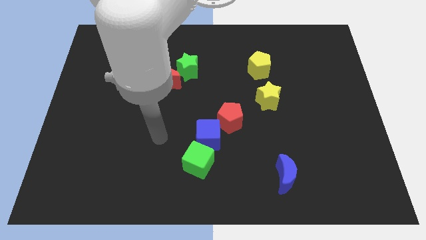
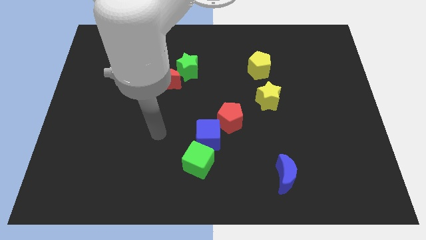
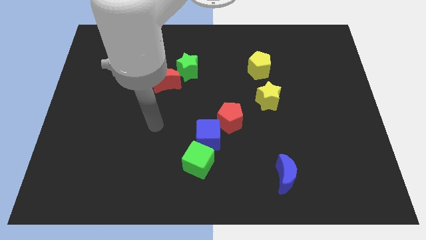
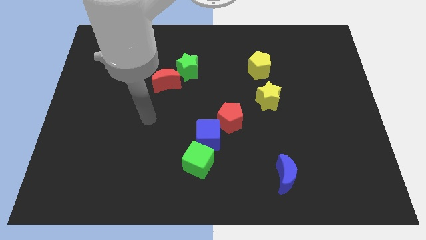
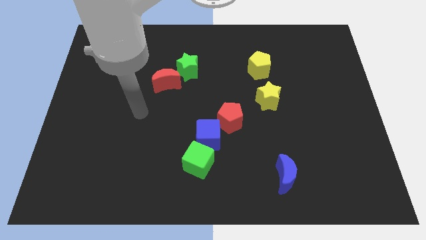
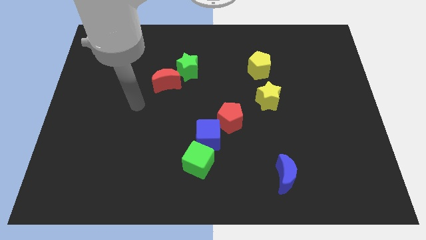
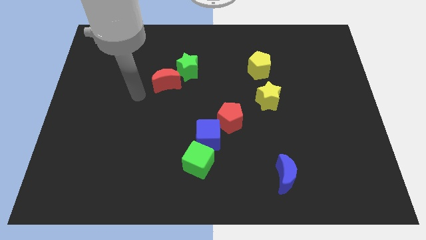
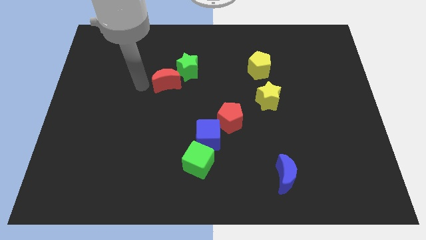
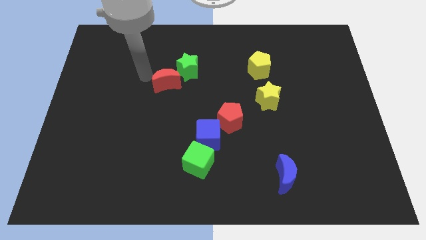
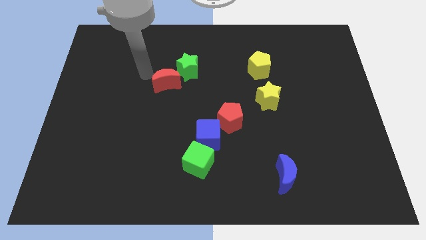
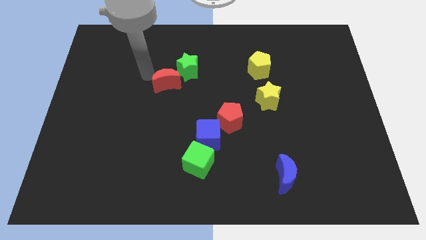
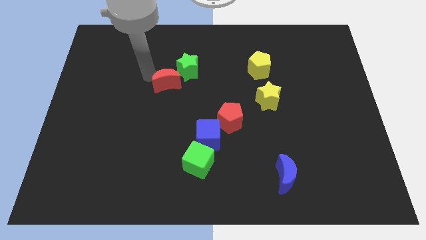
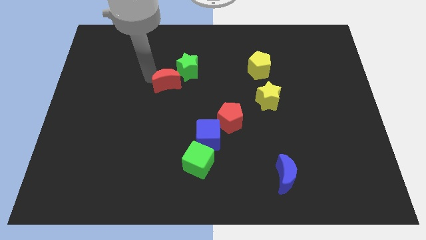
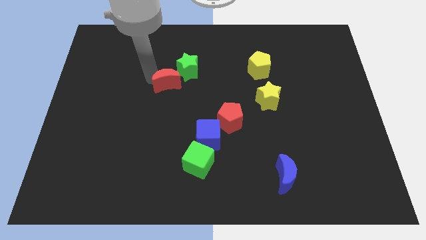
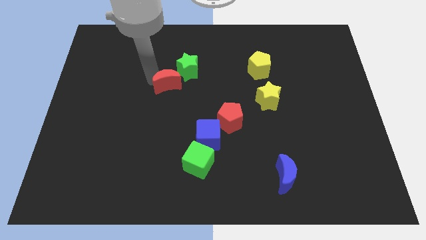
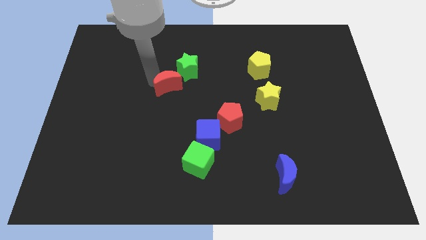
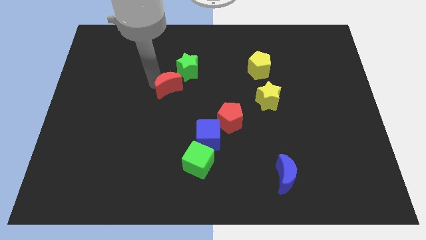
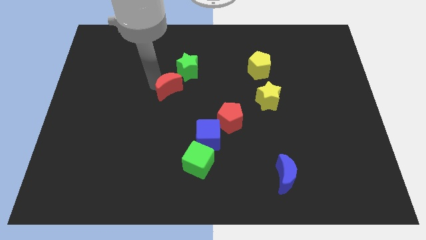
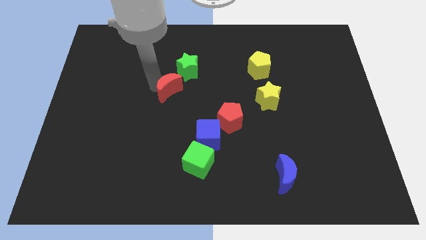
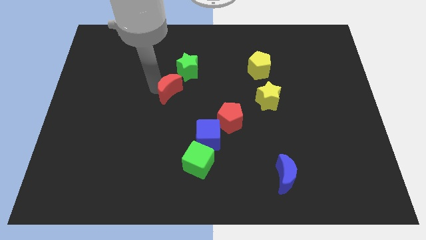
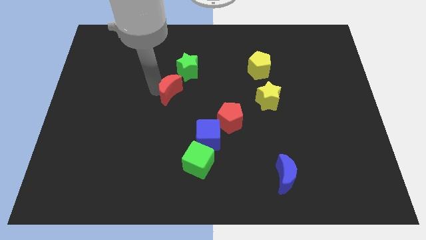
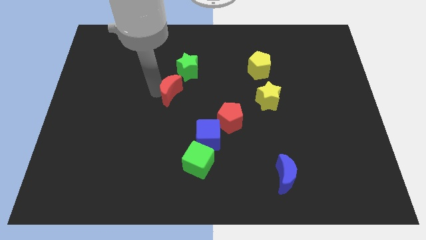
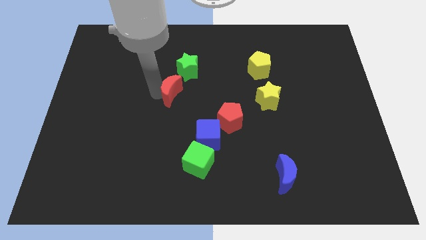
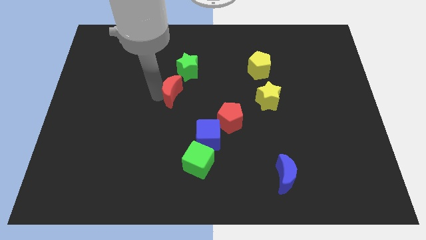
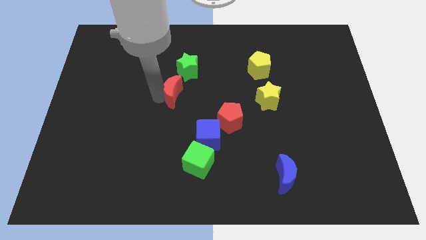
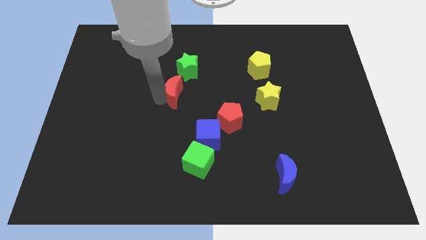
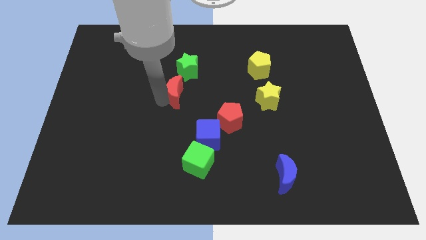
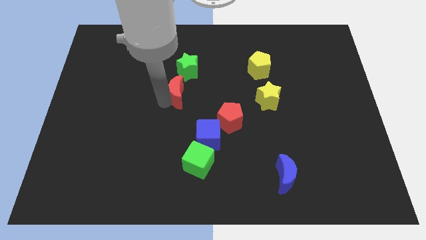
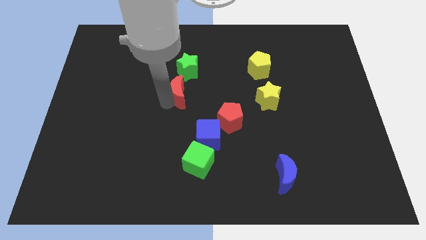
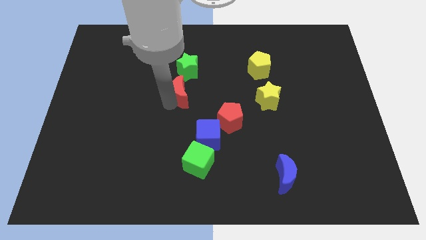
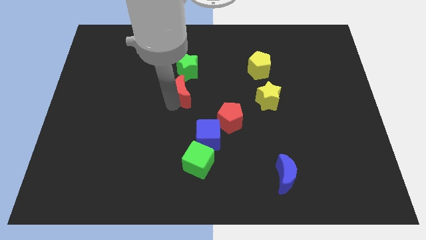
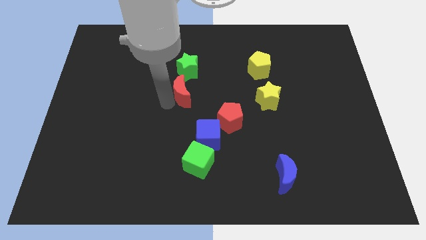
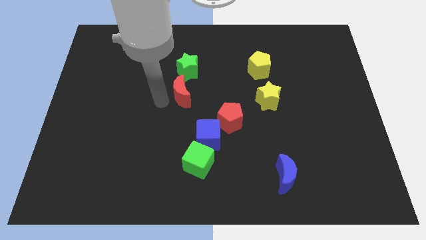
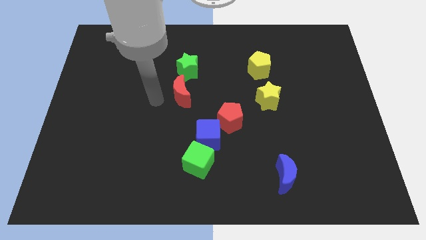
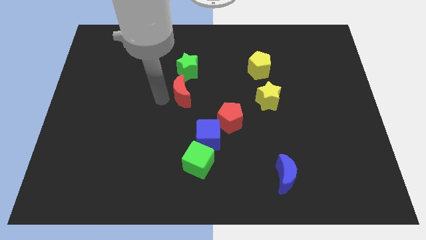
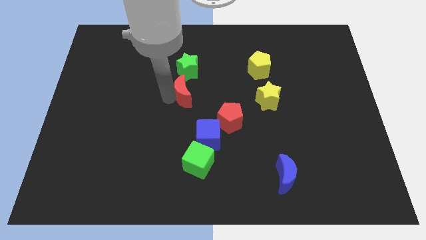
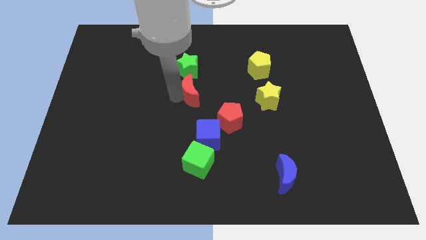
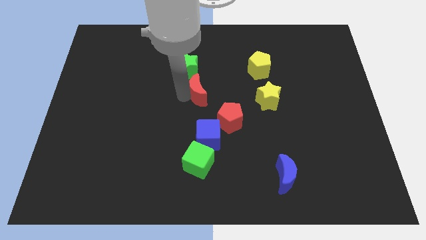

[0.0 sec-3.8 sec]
move the red moon a little bit right

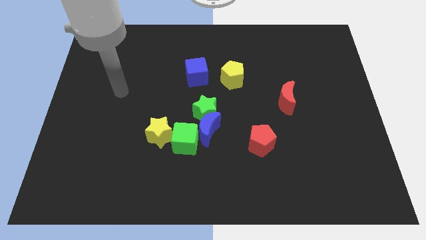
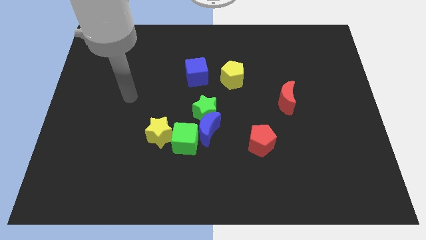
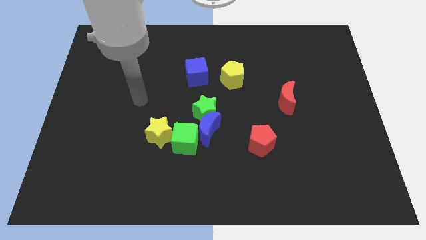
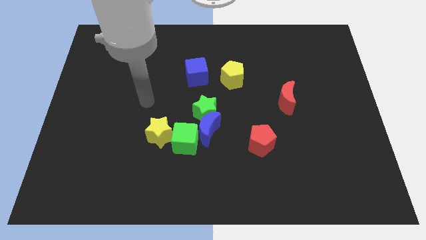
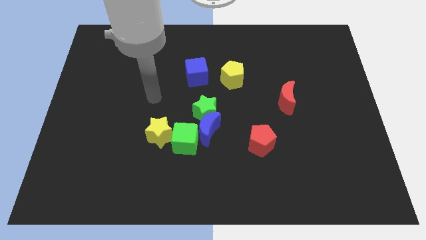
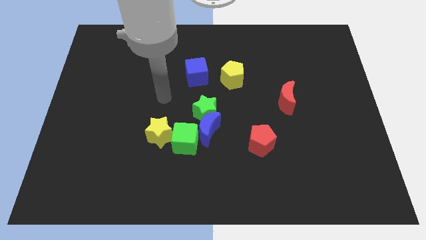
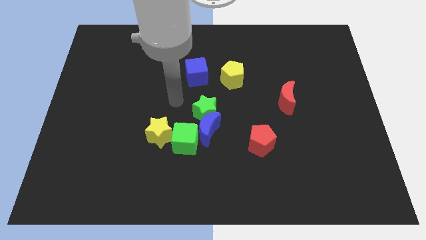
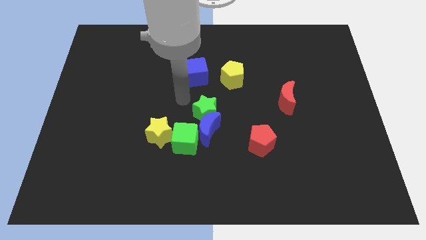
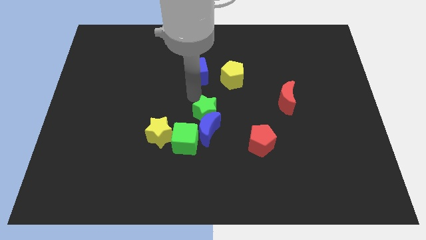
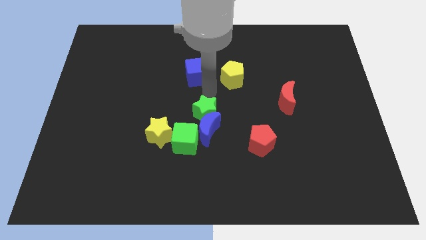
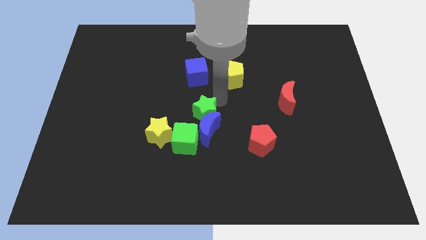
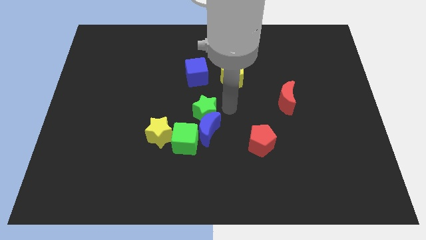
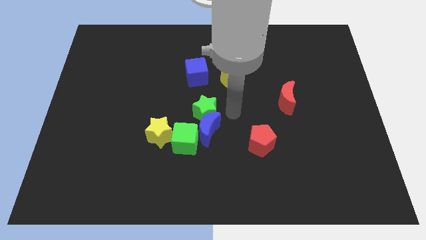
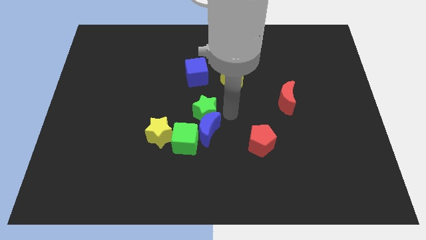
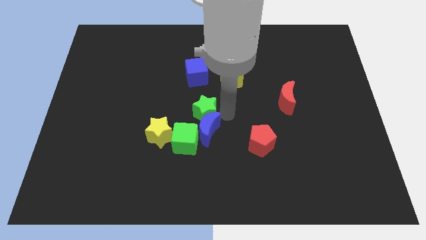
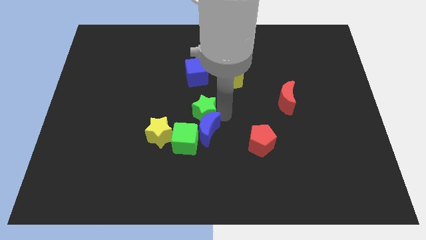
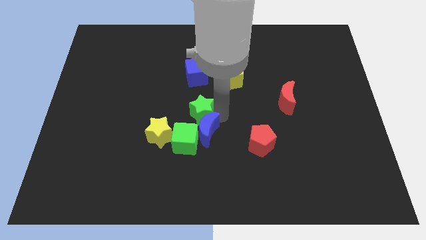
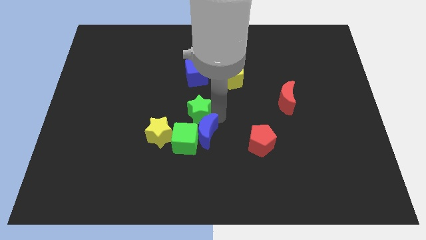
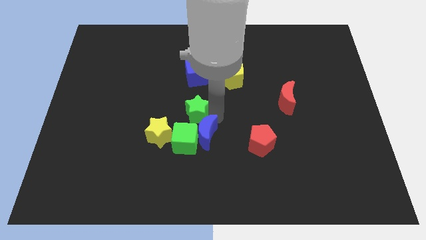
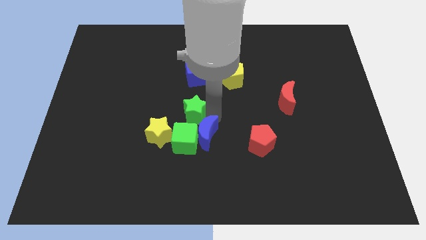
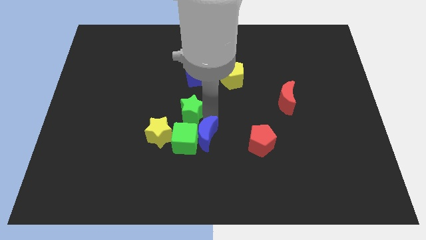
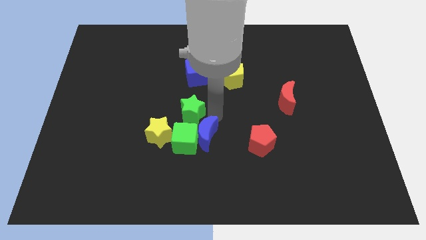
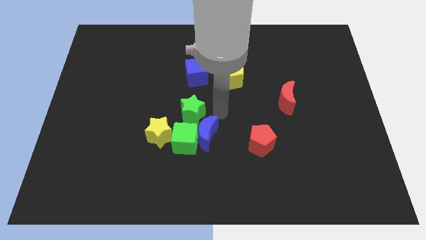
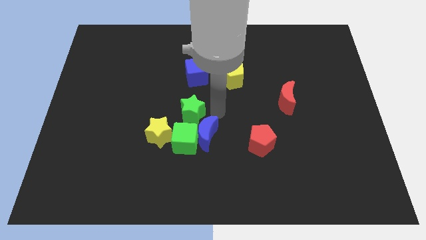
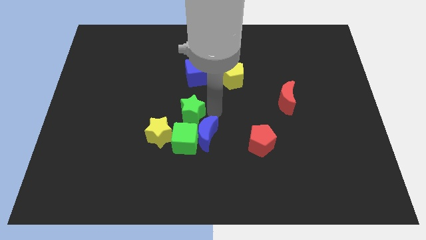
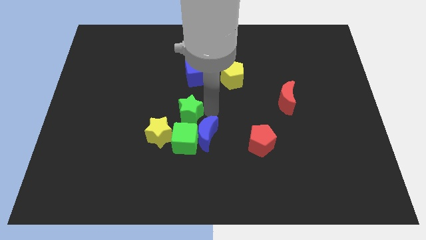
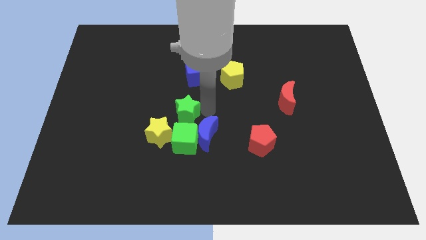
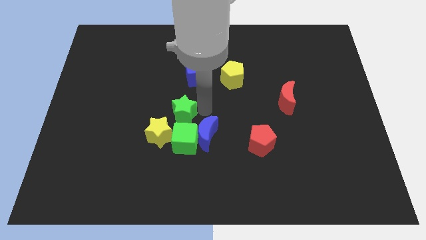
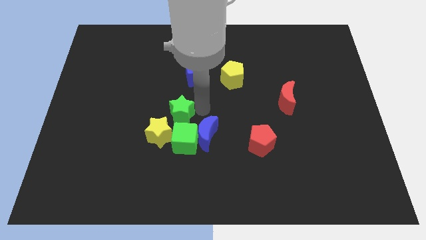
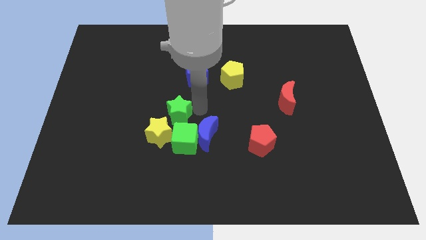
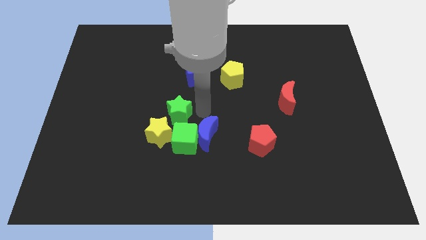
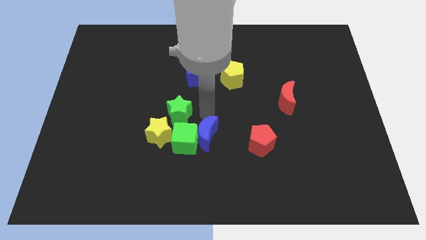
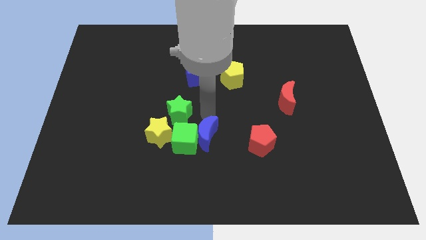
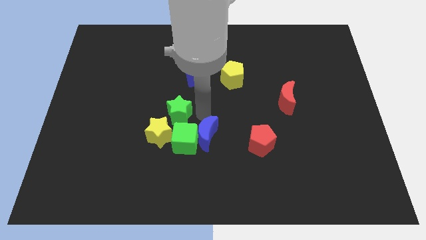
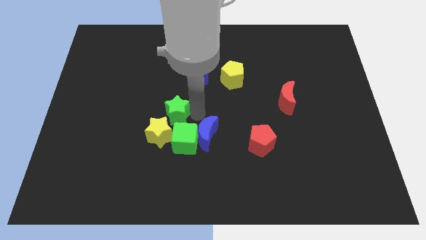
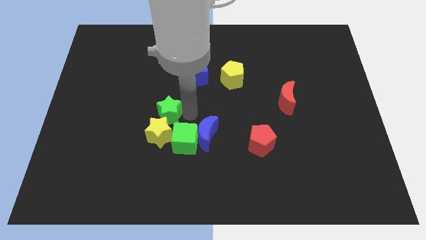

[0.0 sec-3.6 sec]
slightly push the green star to the left

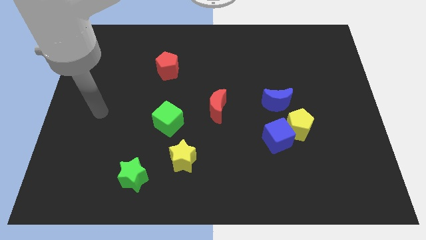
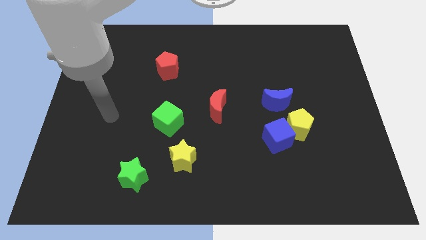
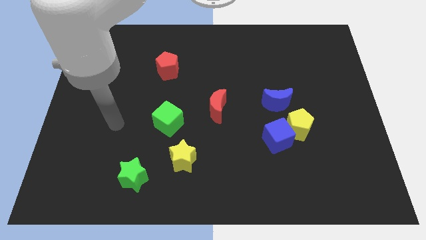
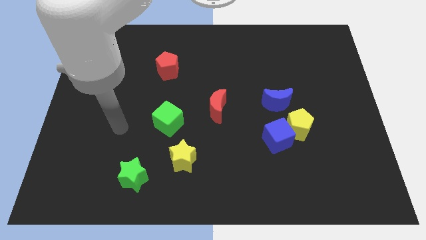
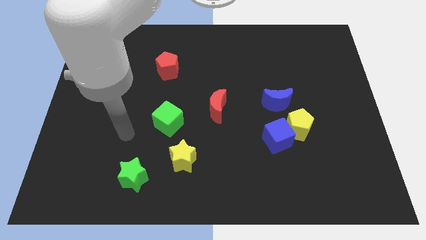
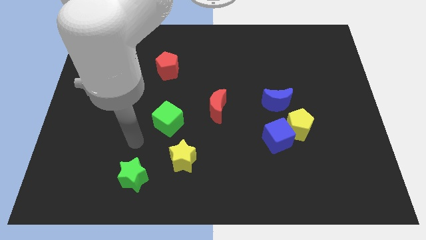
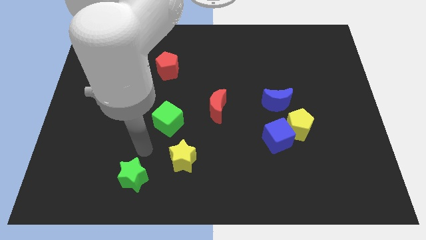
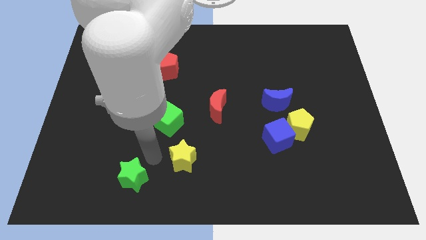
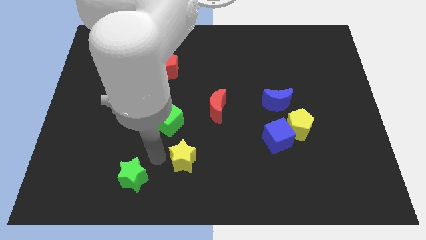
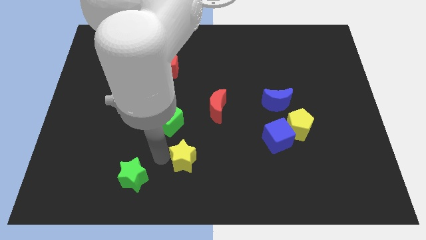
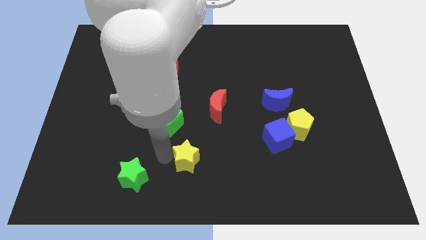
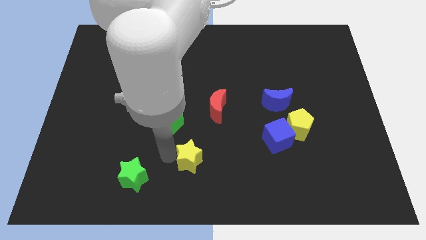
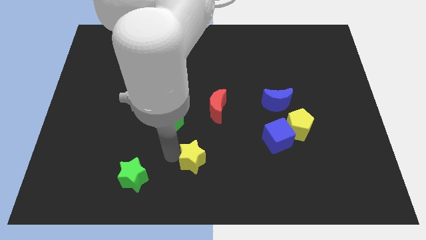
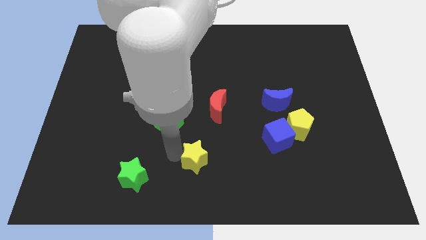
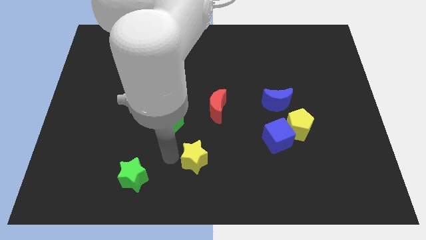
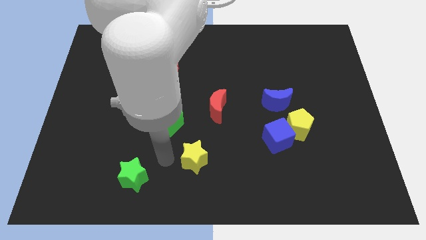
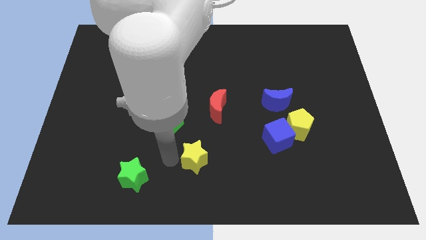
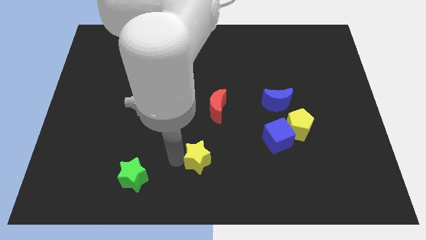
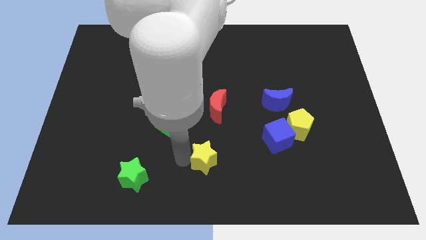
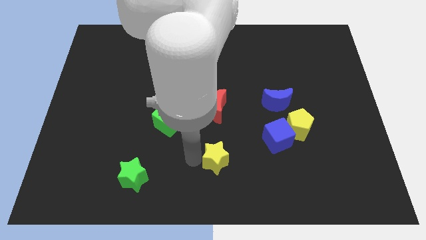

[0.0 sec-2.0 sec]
push the yellow star a little bit to the right
